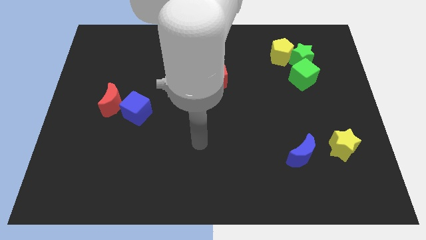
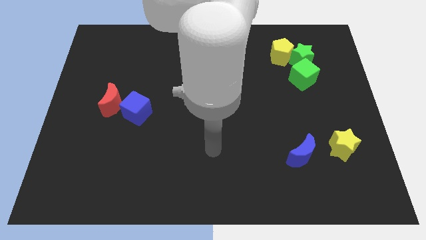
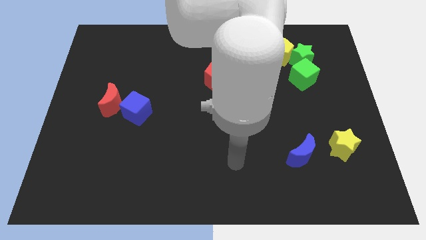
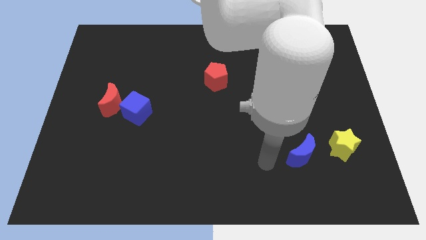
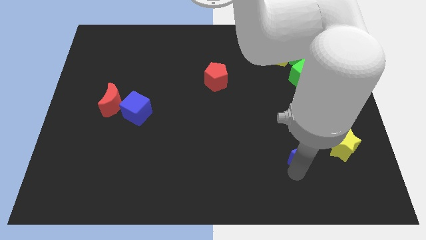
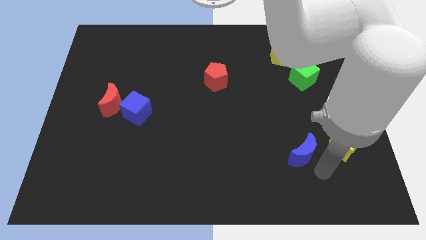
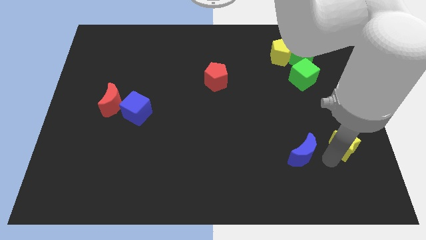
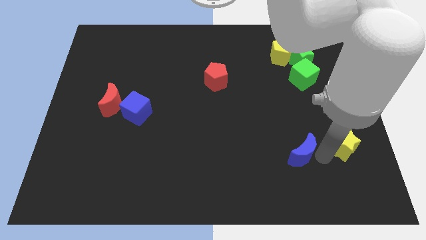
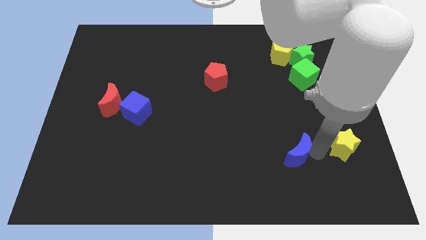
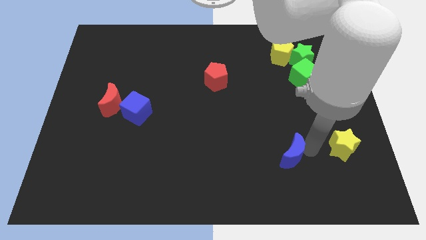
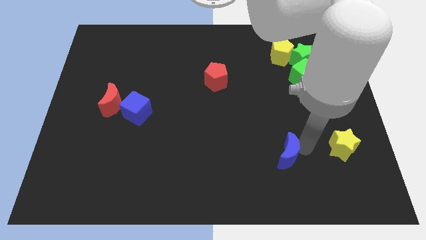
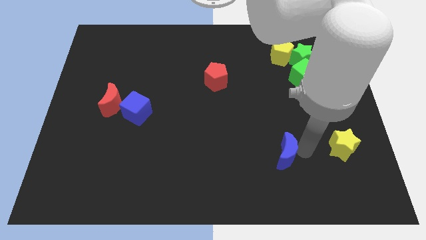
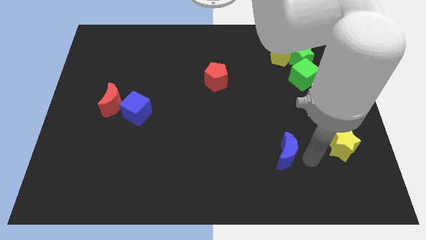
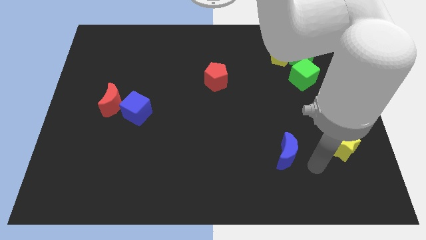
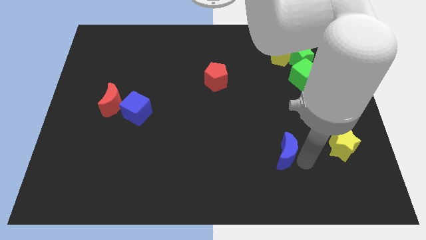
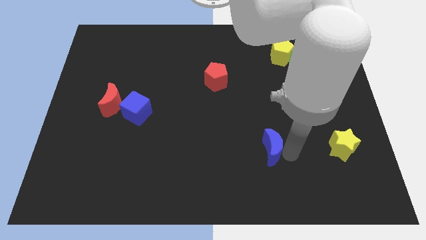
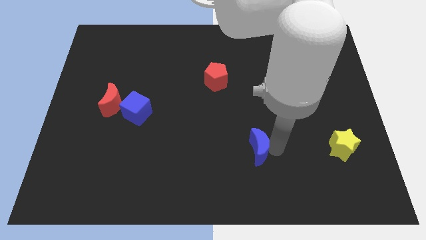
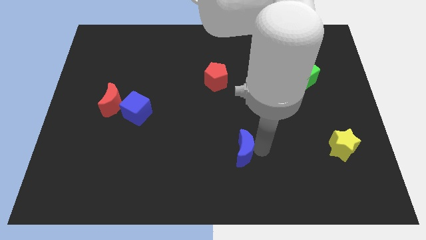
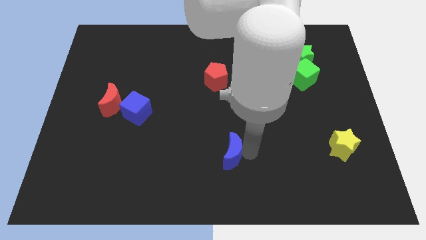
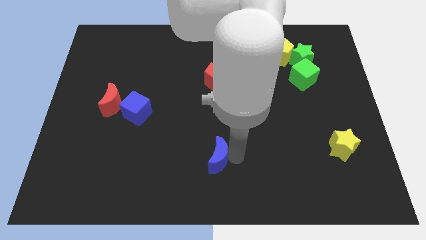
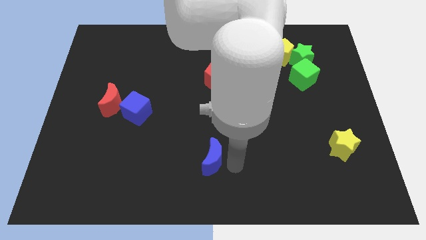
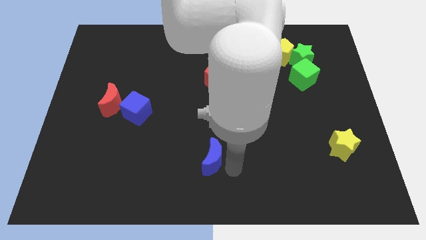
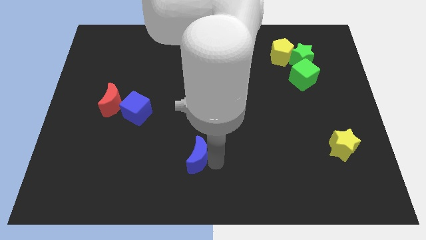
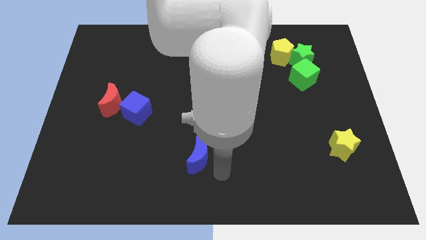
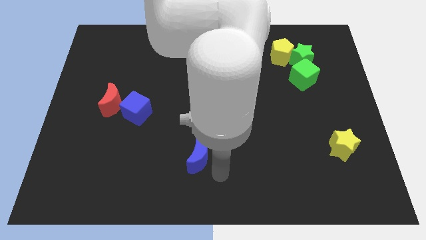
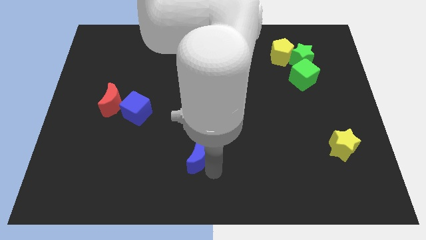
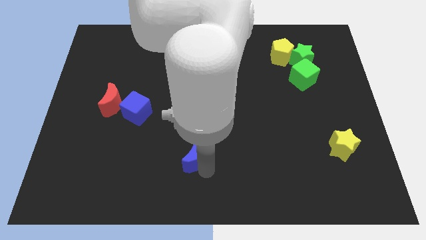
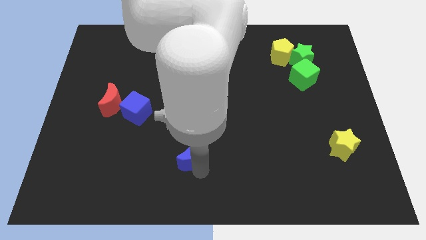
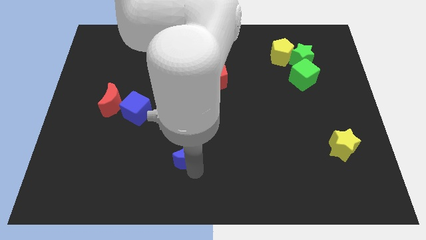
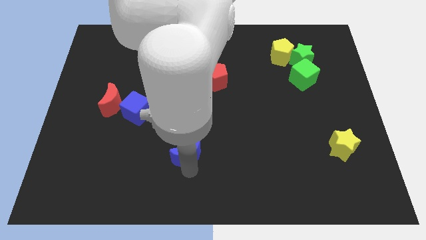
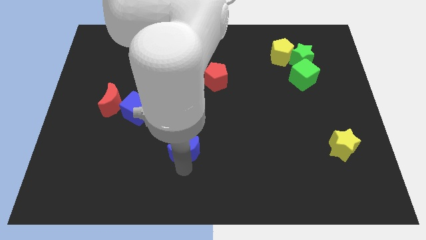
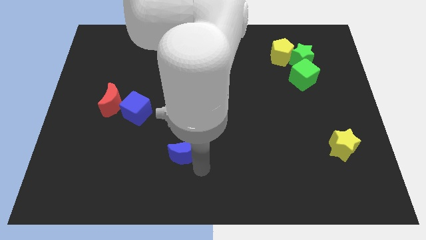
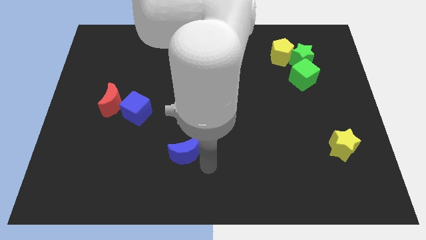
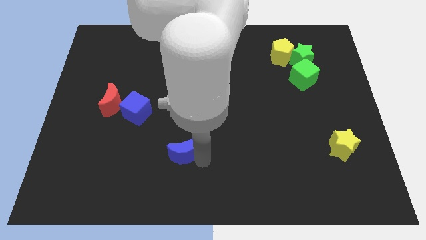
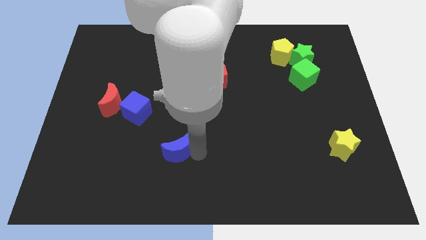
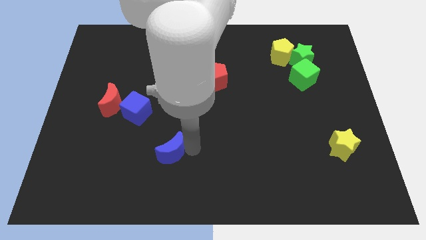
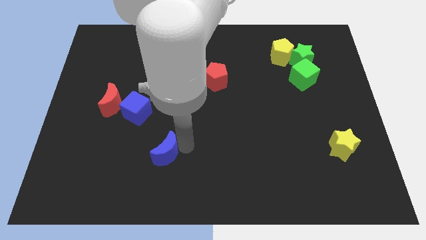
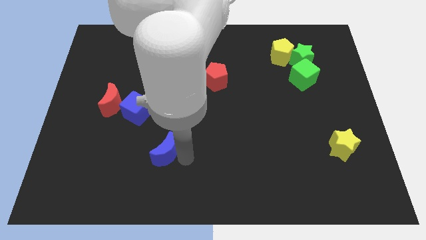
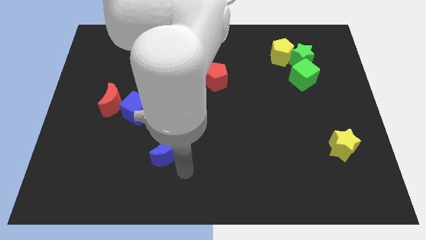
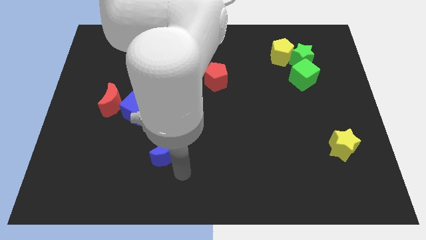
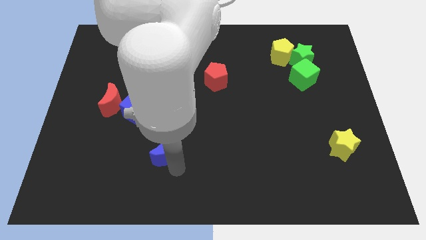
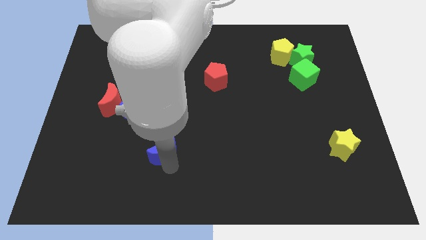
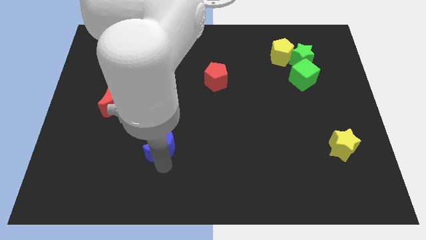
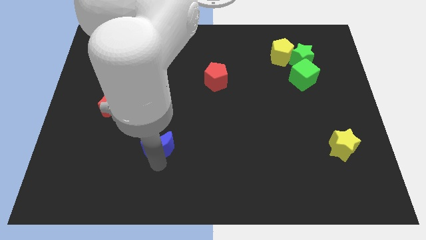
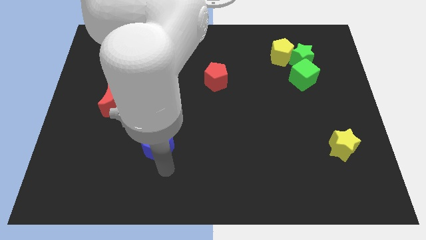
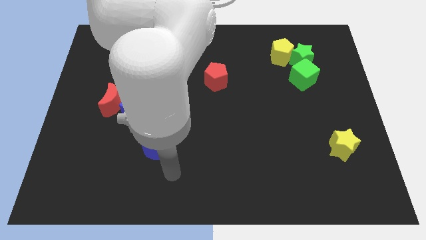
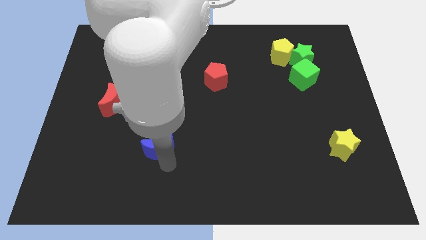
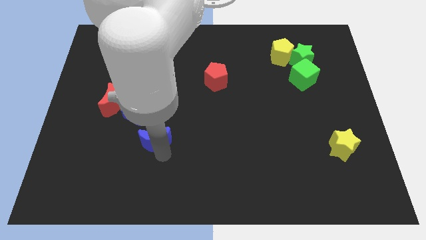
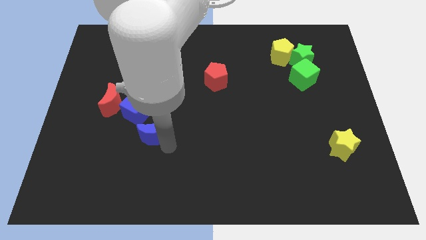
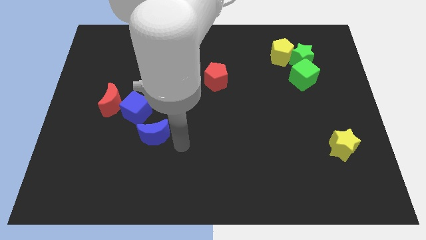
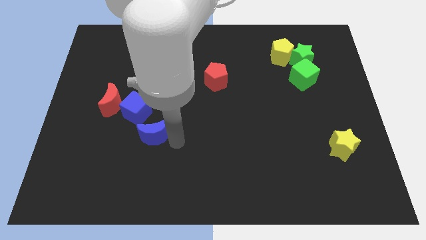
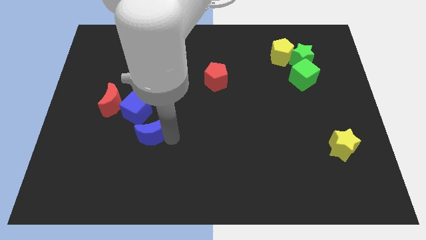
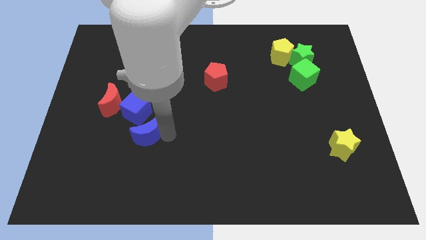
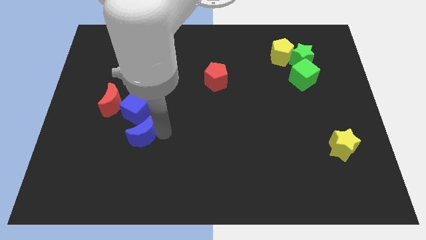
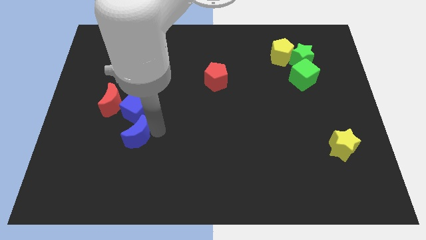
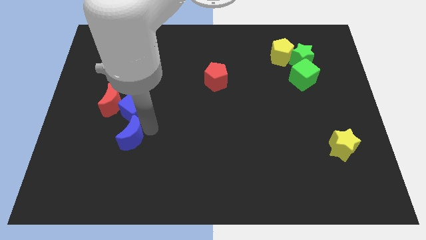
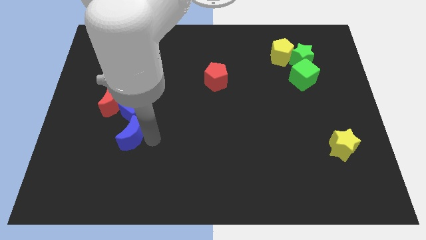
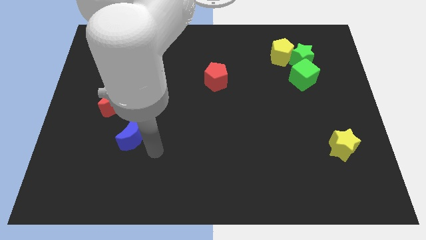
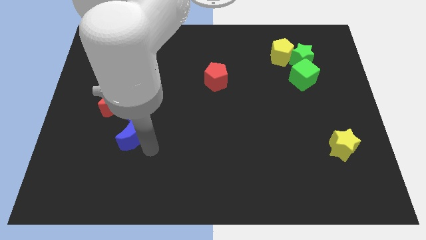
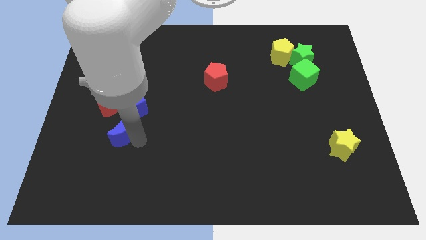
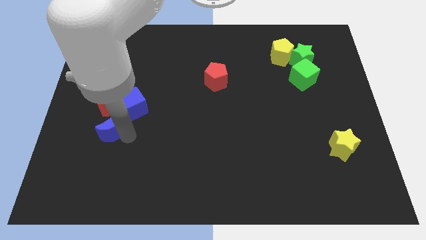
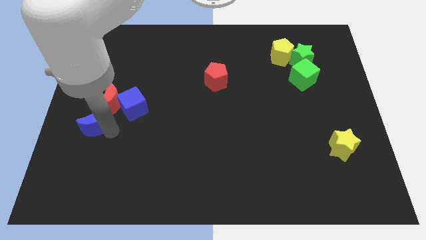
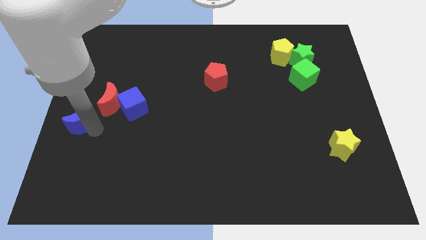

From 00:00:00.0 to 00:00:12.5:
move the blue moon to the left of the blue cube

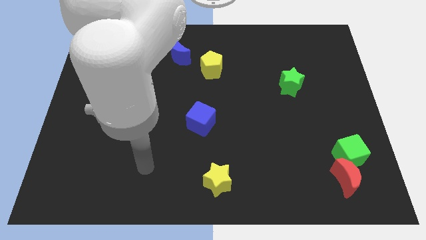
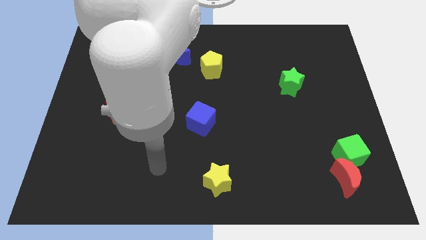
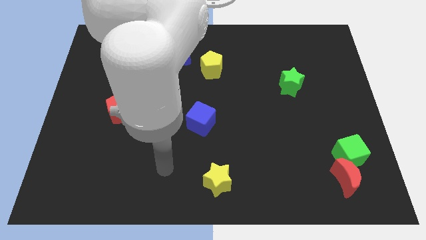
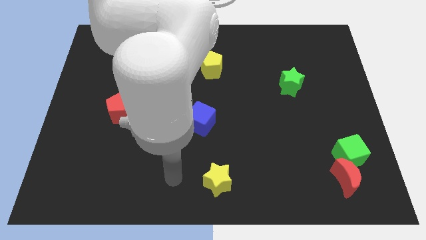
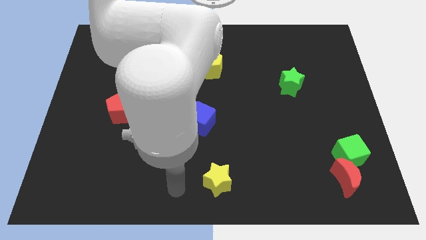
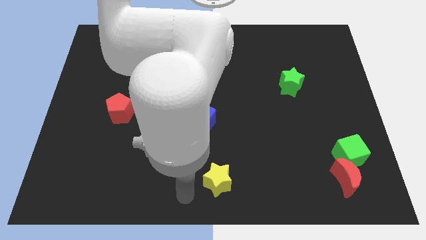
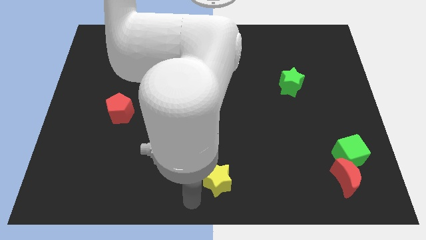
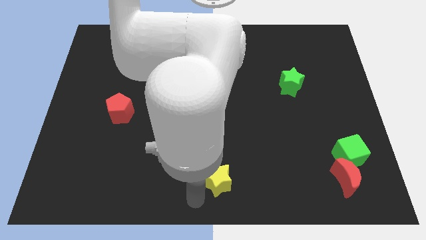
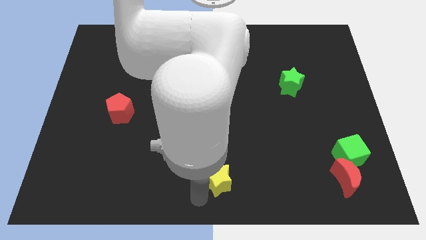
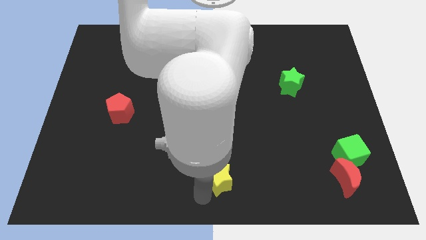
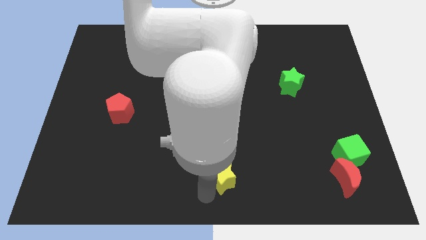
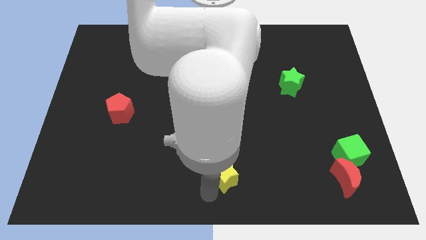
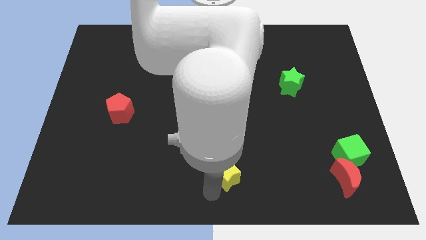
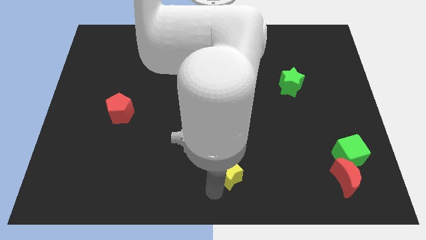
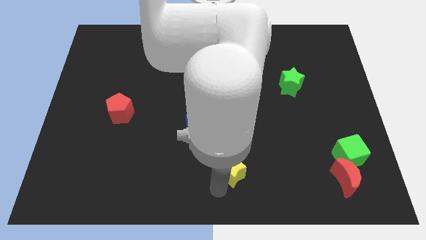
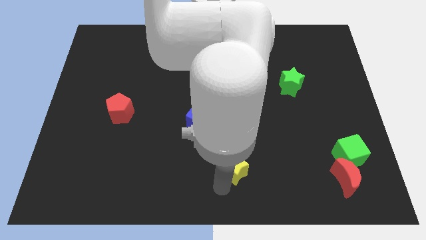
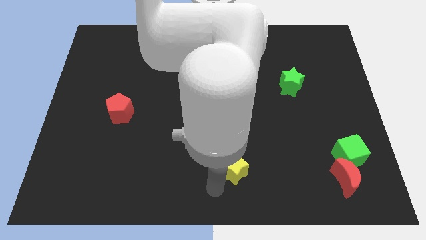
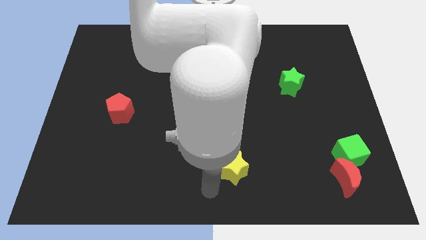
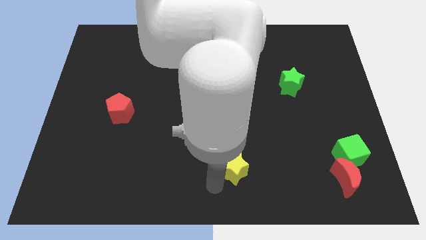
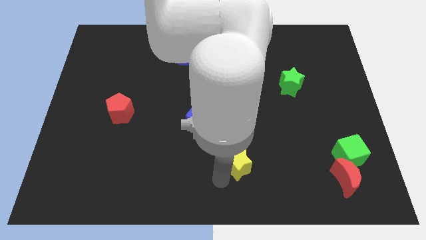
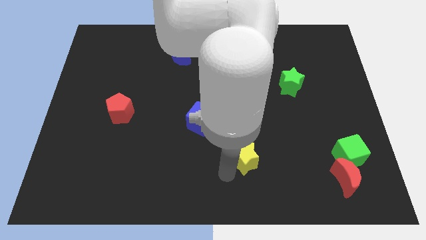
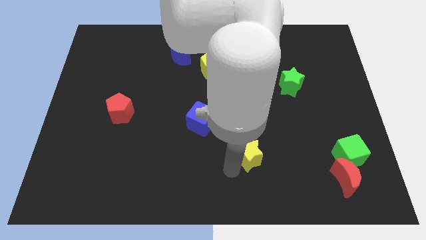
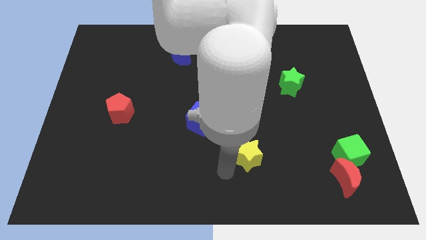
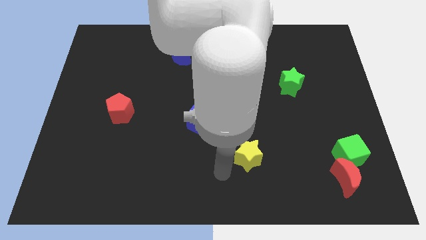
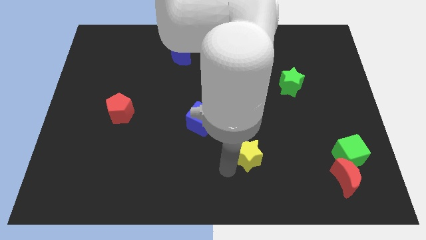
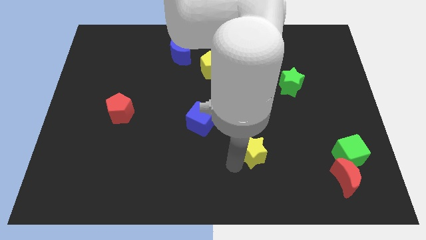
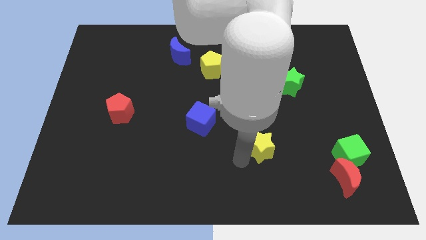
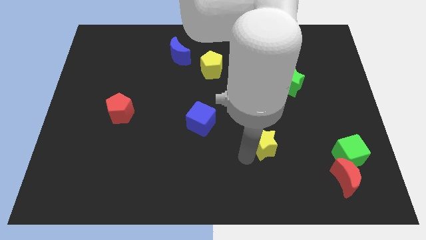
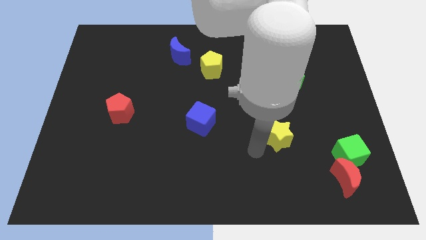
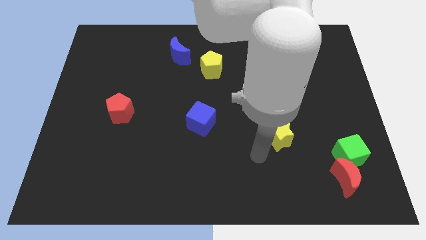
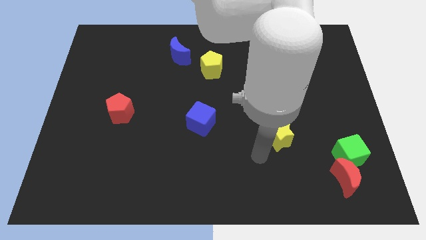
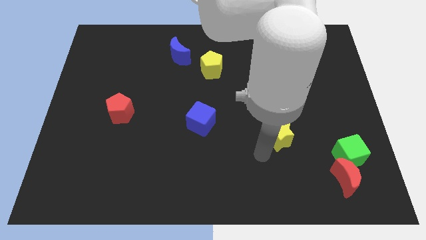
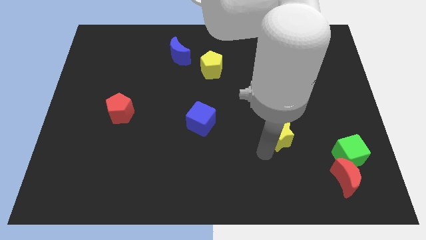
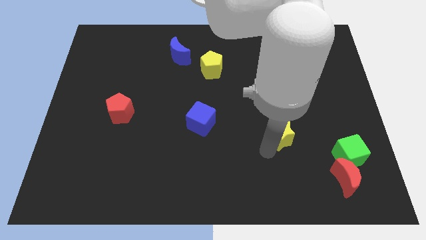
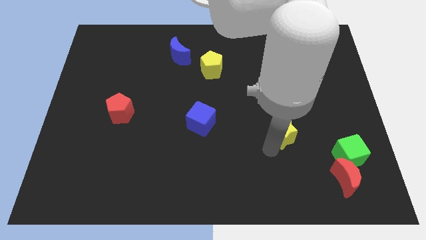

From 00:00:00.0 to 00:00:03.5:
slide the yellow star to the bottom of the green star
